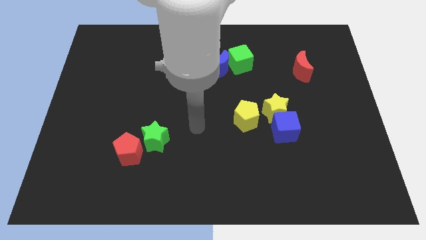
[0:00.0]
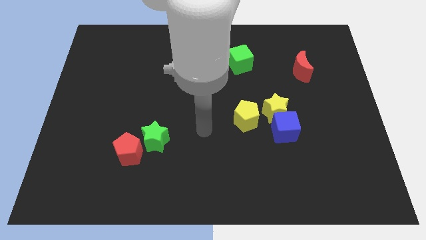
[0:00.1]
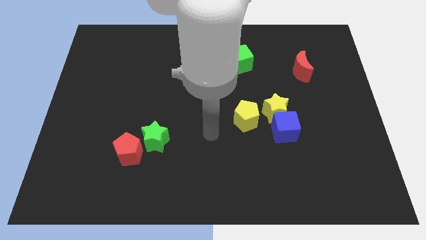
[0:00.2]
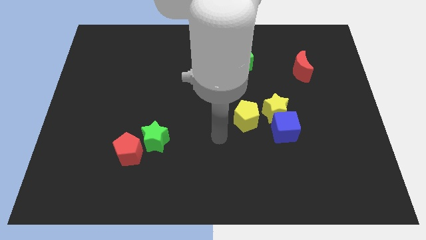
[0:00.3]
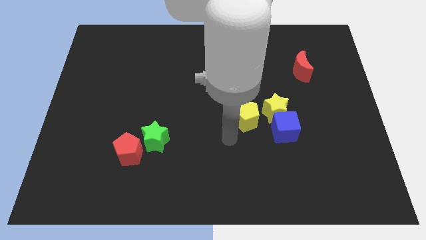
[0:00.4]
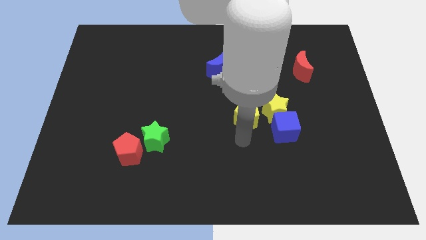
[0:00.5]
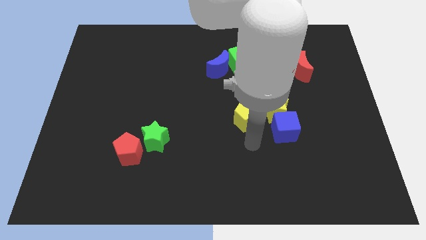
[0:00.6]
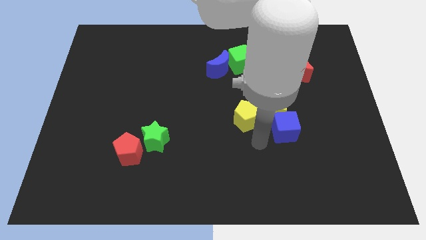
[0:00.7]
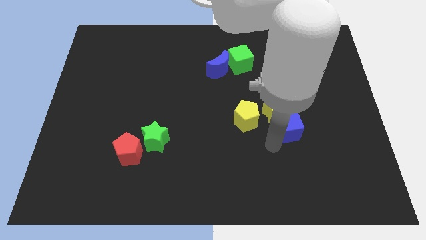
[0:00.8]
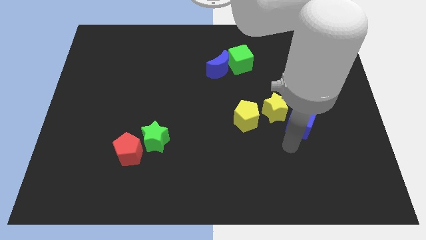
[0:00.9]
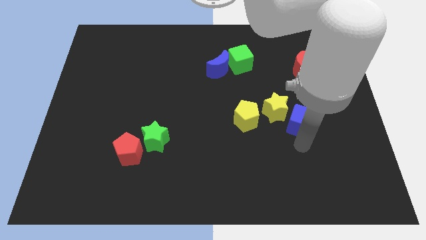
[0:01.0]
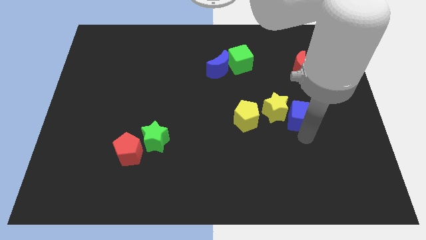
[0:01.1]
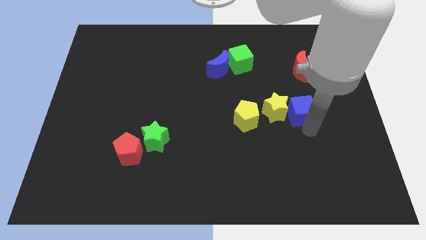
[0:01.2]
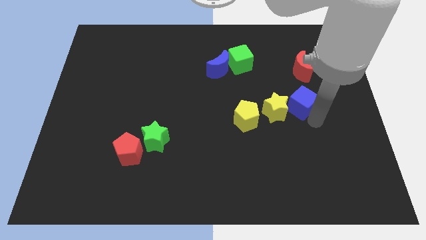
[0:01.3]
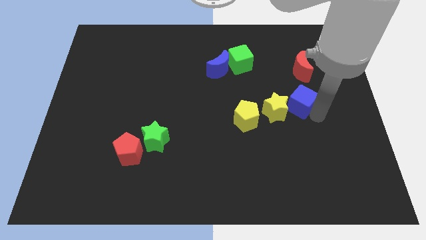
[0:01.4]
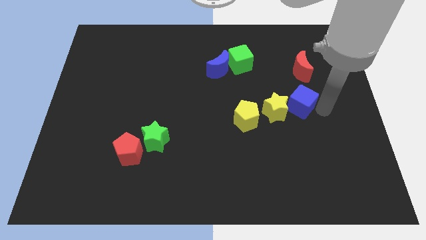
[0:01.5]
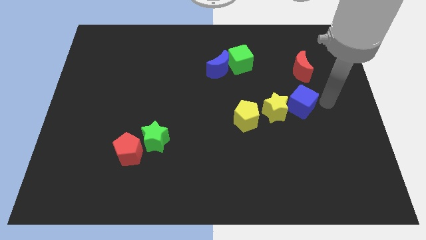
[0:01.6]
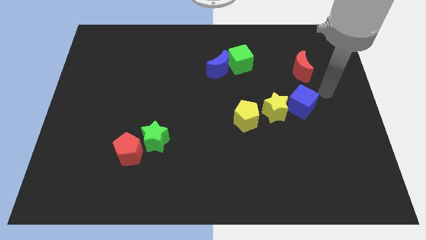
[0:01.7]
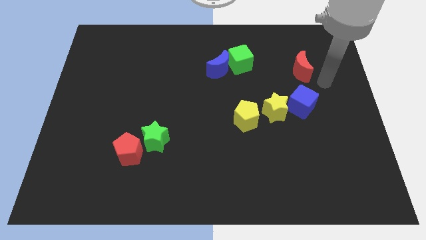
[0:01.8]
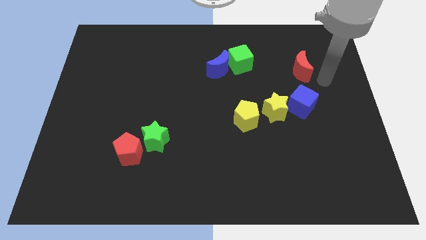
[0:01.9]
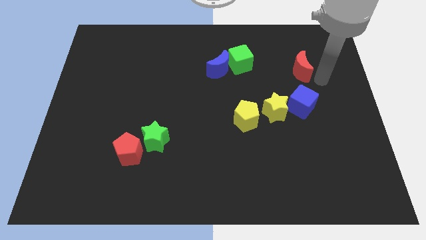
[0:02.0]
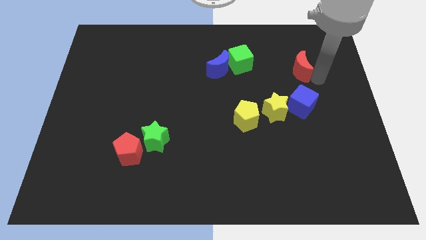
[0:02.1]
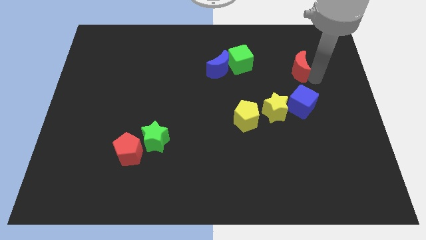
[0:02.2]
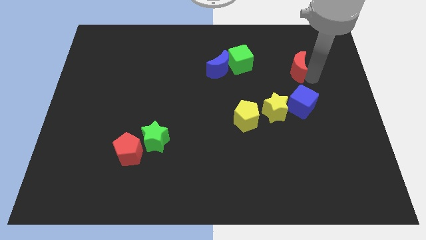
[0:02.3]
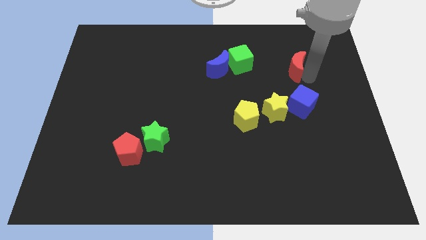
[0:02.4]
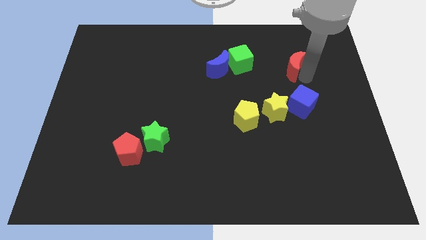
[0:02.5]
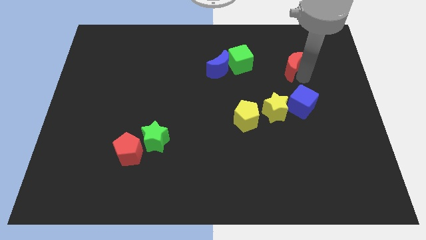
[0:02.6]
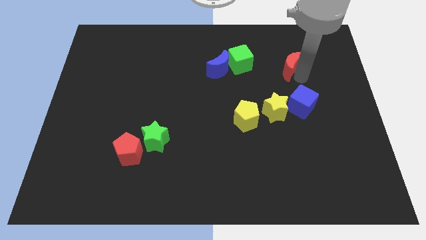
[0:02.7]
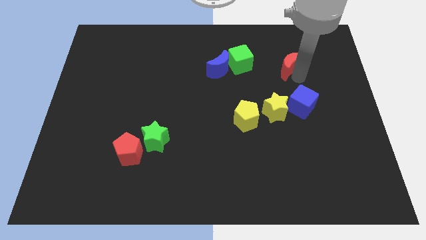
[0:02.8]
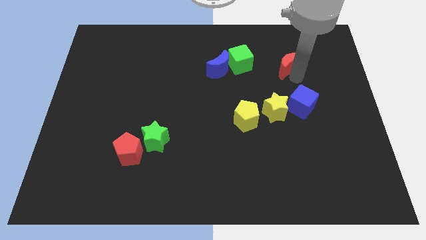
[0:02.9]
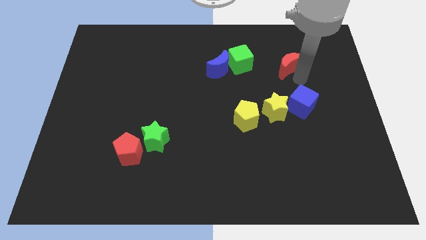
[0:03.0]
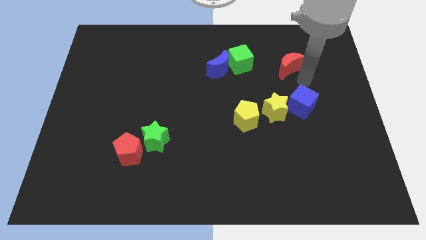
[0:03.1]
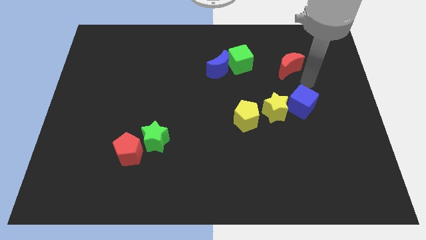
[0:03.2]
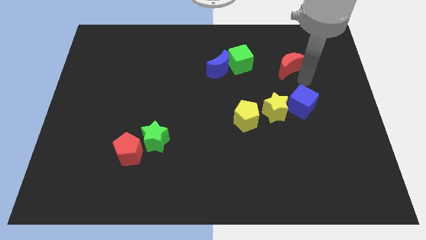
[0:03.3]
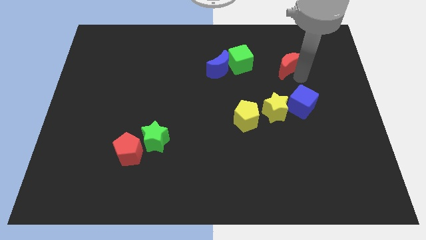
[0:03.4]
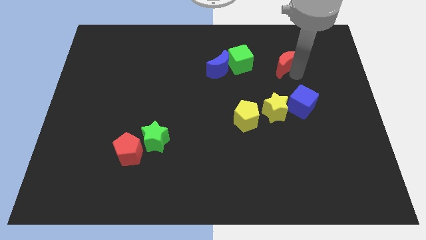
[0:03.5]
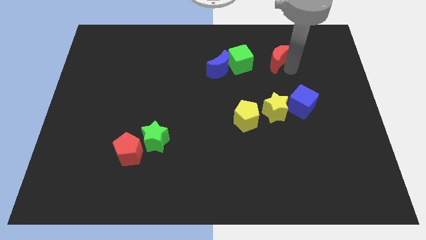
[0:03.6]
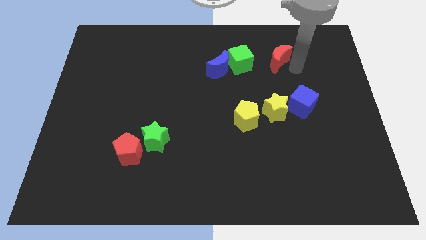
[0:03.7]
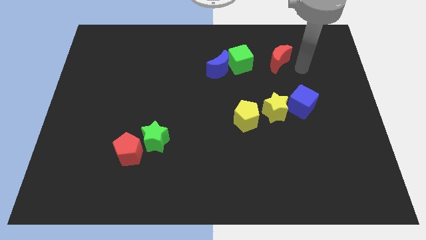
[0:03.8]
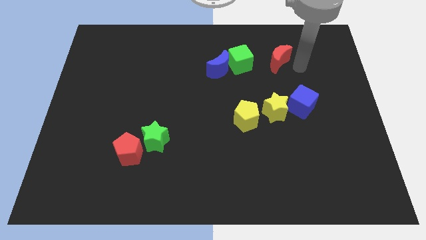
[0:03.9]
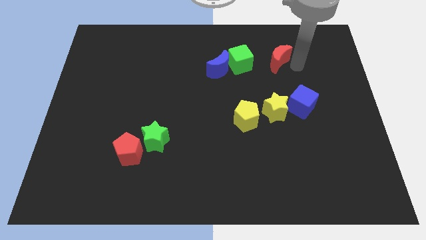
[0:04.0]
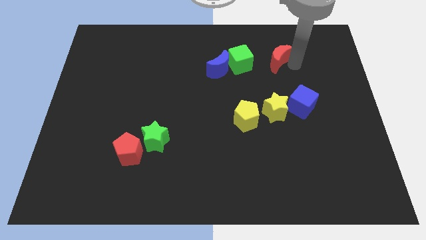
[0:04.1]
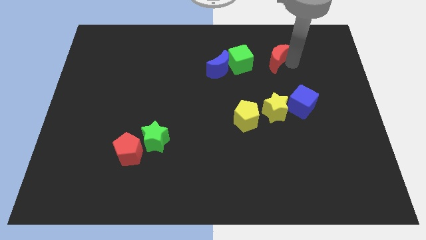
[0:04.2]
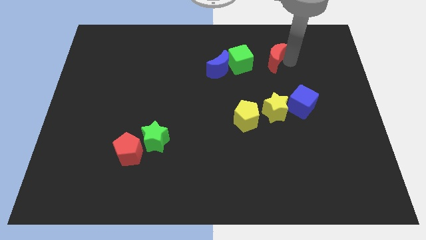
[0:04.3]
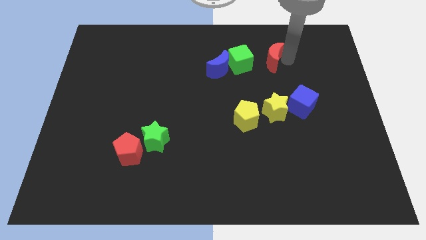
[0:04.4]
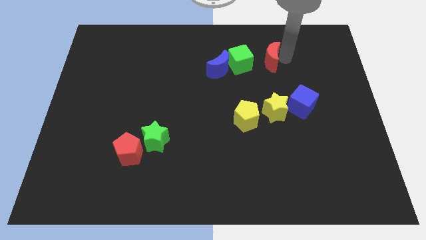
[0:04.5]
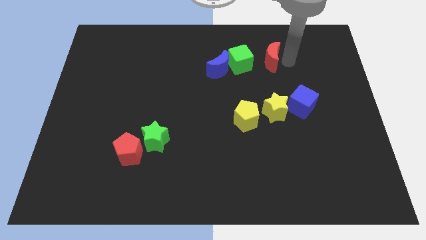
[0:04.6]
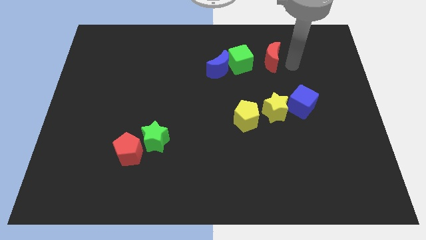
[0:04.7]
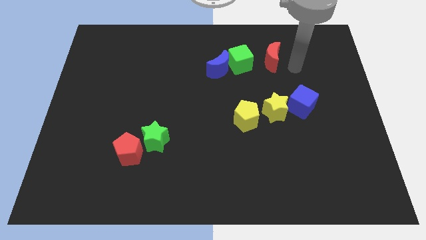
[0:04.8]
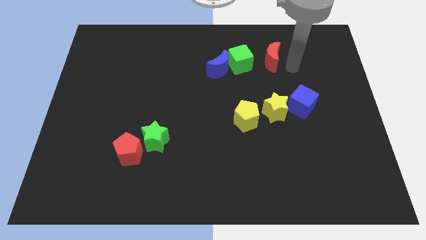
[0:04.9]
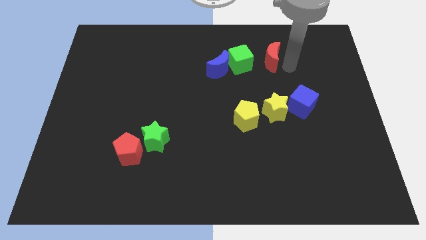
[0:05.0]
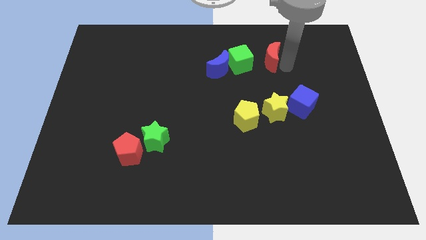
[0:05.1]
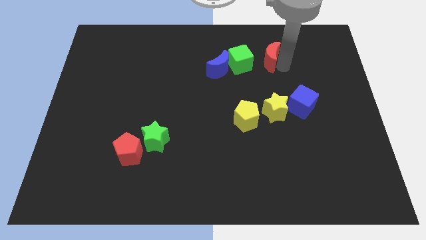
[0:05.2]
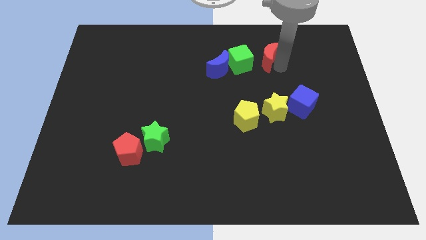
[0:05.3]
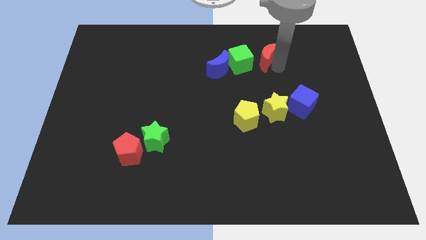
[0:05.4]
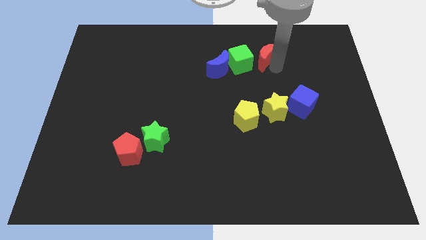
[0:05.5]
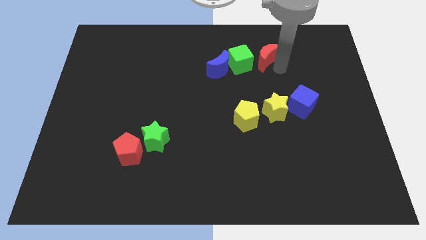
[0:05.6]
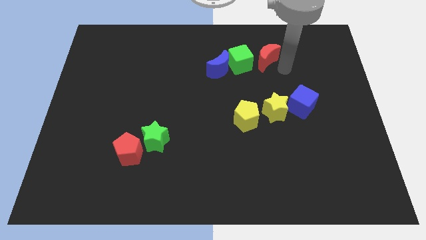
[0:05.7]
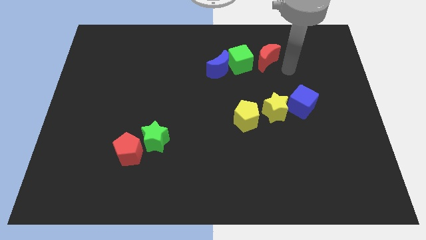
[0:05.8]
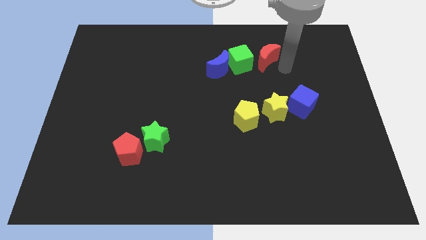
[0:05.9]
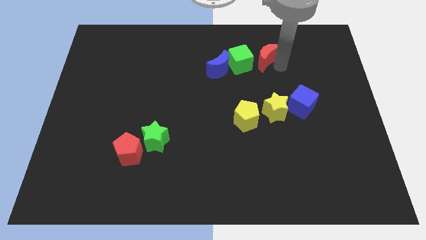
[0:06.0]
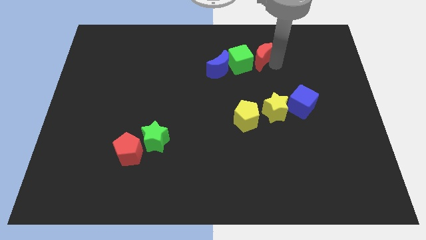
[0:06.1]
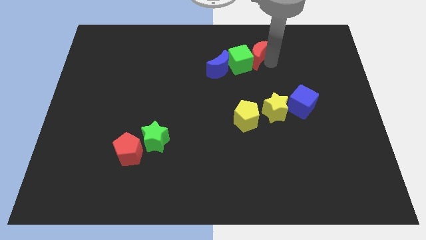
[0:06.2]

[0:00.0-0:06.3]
slide the red moon to the top right side of the blue moon

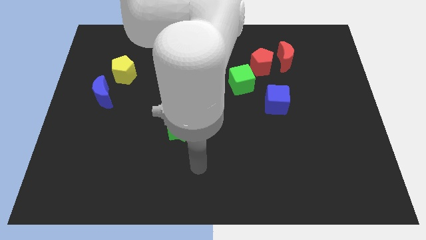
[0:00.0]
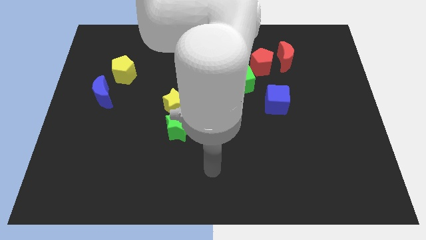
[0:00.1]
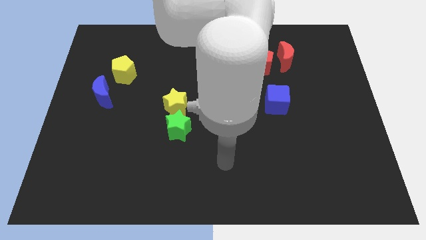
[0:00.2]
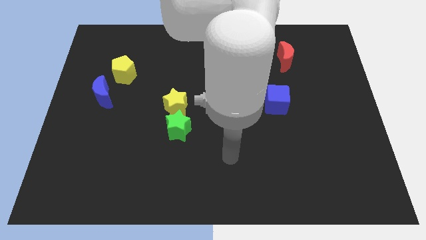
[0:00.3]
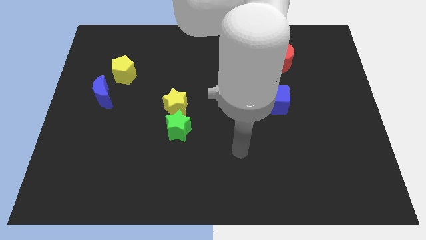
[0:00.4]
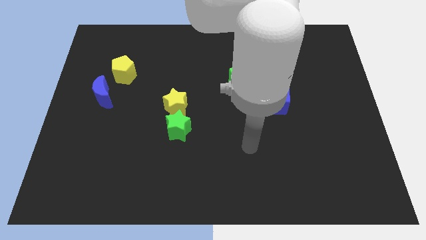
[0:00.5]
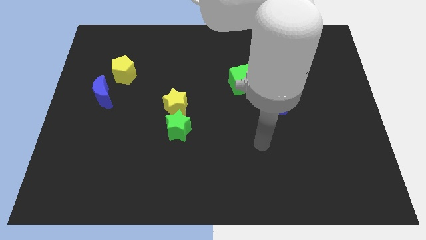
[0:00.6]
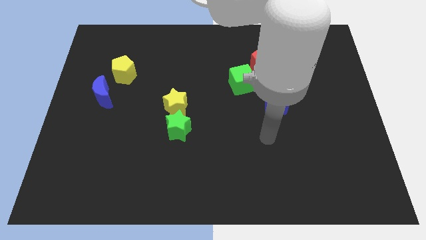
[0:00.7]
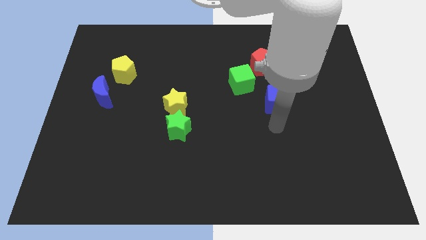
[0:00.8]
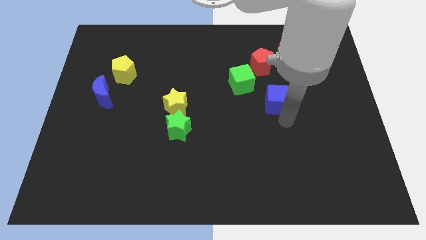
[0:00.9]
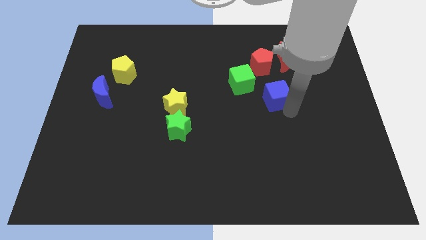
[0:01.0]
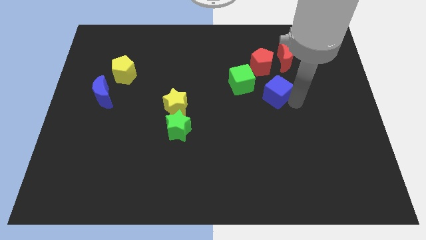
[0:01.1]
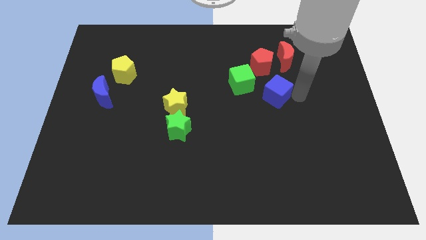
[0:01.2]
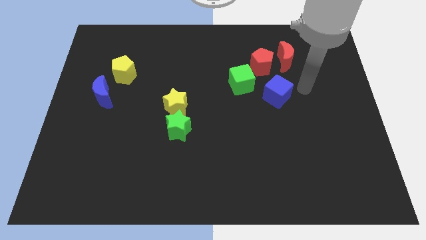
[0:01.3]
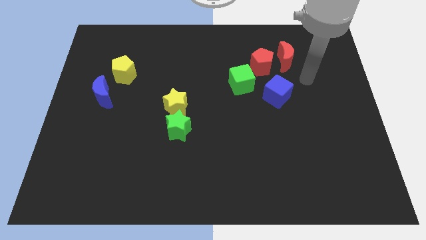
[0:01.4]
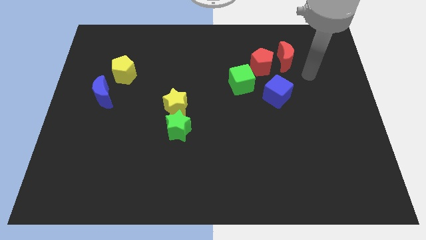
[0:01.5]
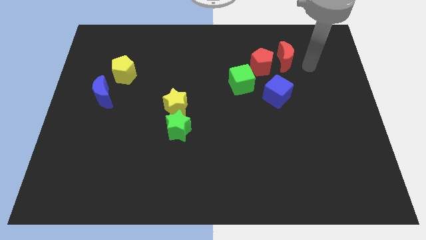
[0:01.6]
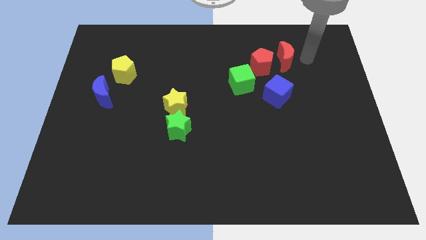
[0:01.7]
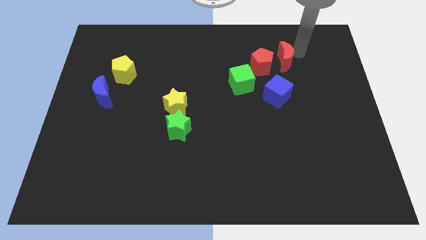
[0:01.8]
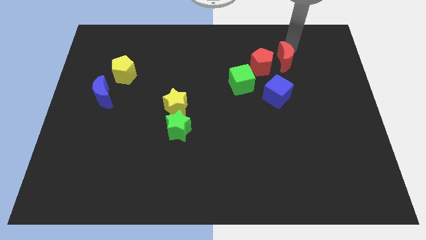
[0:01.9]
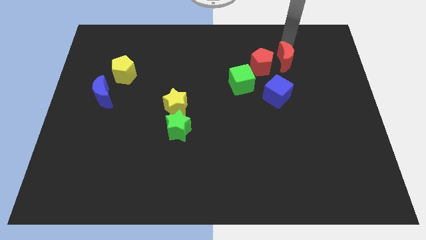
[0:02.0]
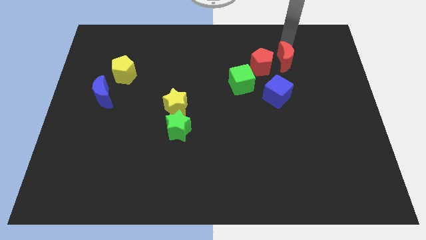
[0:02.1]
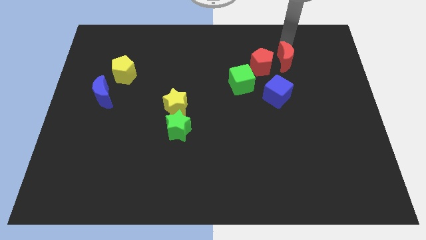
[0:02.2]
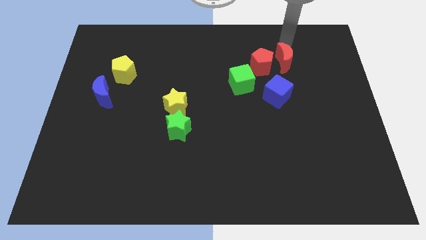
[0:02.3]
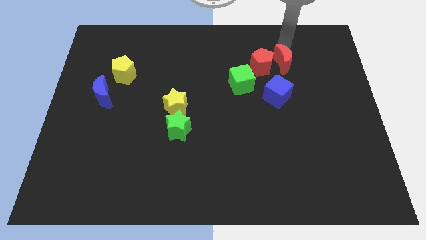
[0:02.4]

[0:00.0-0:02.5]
slide the red moon to the bottom right side of the red pentagon
